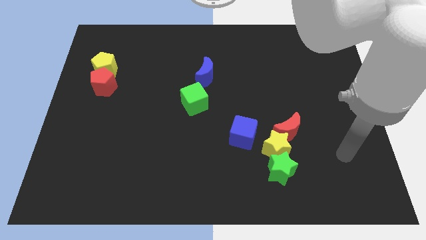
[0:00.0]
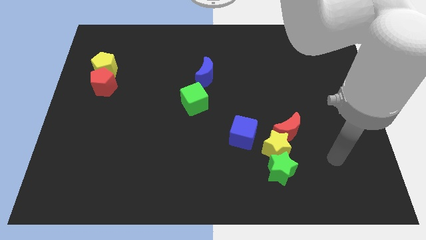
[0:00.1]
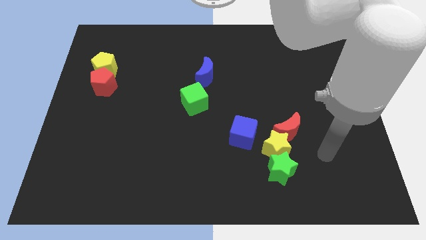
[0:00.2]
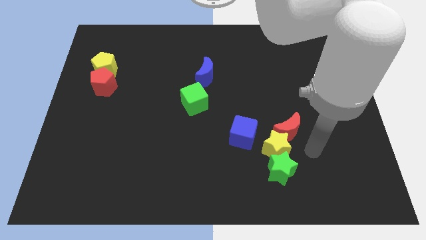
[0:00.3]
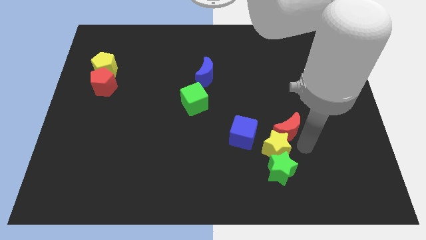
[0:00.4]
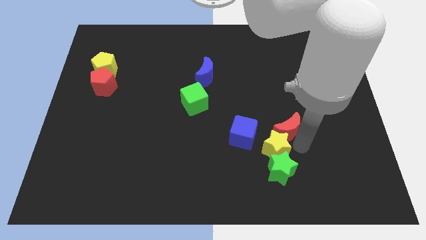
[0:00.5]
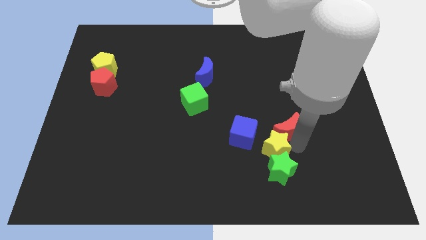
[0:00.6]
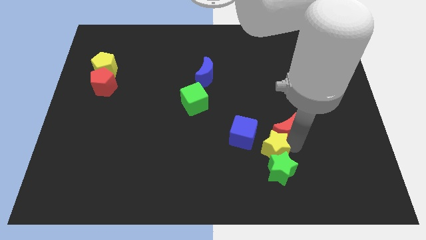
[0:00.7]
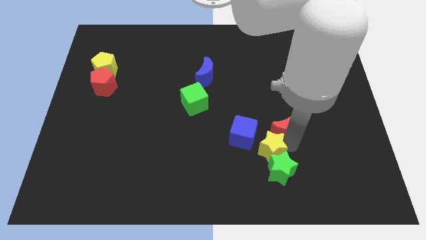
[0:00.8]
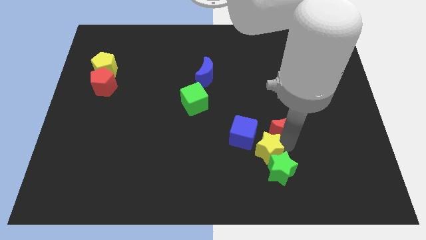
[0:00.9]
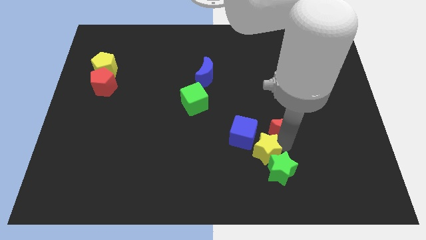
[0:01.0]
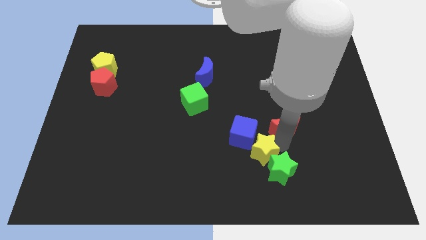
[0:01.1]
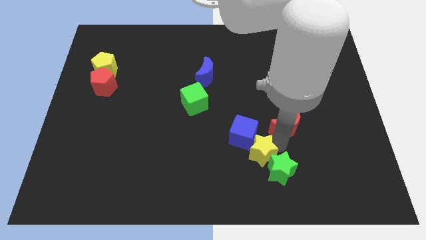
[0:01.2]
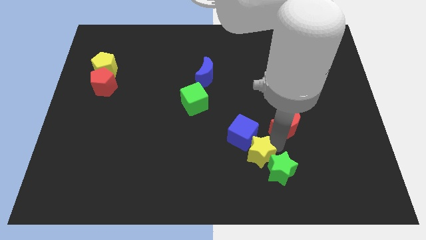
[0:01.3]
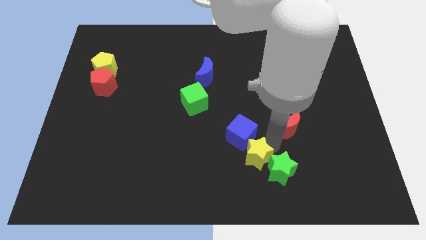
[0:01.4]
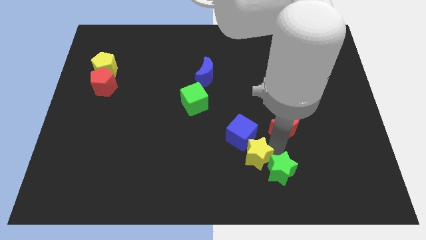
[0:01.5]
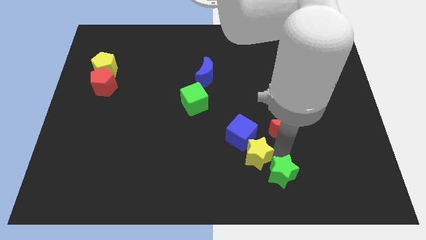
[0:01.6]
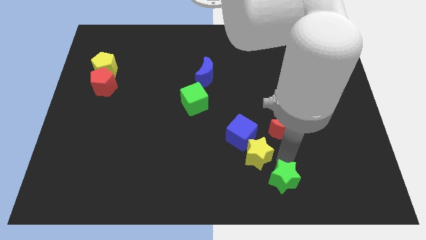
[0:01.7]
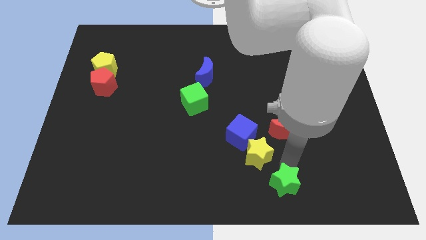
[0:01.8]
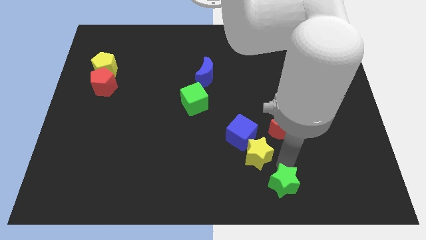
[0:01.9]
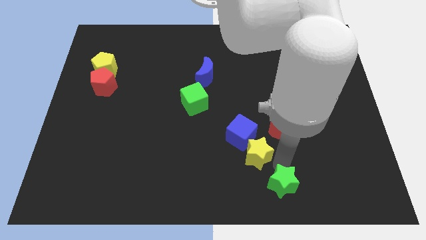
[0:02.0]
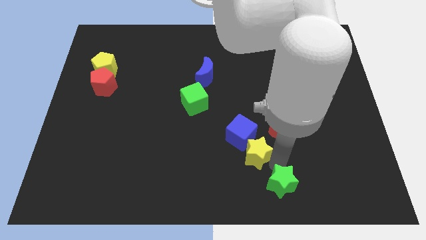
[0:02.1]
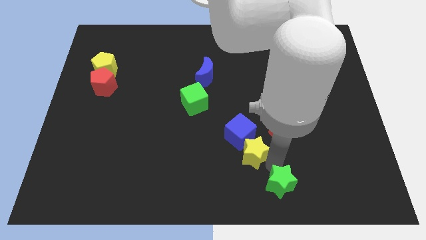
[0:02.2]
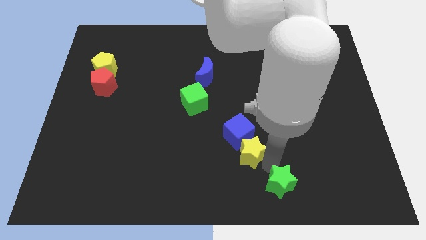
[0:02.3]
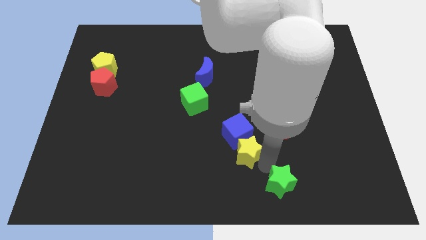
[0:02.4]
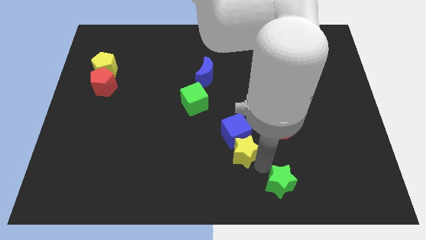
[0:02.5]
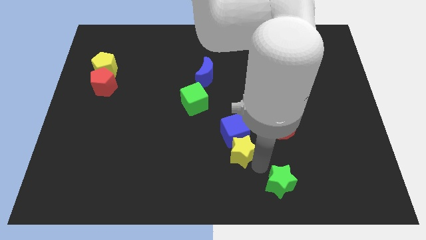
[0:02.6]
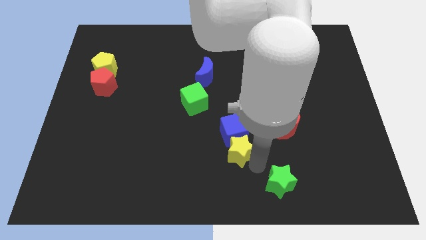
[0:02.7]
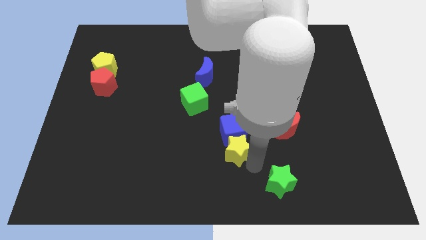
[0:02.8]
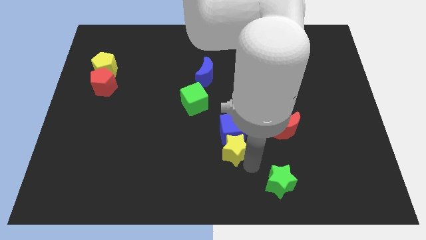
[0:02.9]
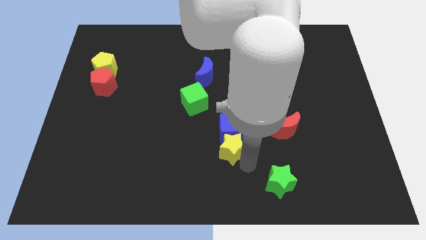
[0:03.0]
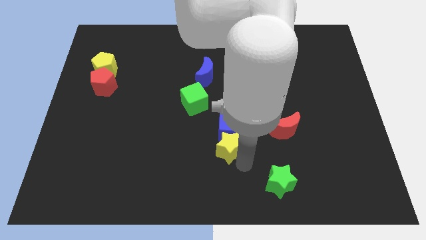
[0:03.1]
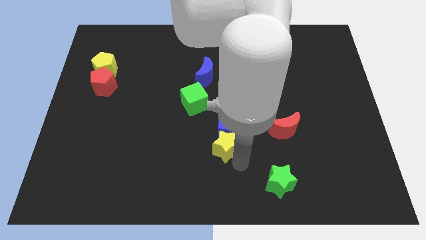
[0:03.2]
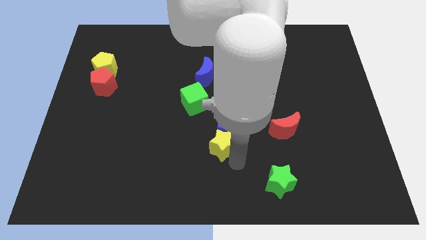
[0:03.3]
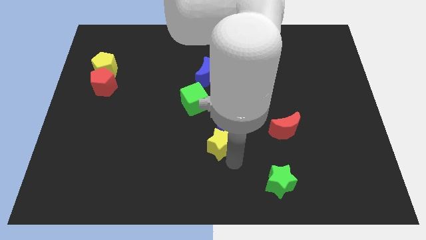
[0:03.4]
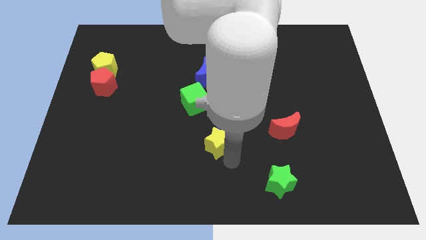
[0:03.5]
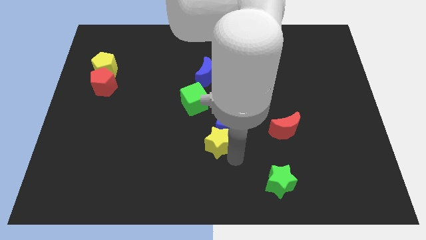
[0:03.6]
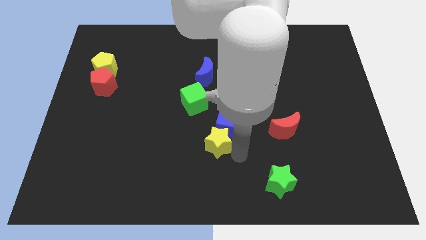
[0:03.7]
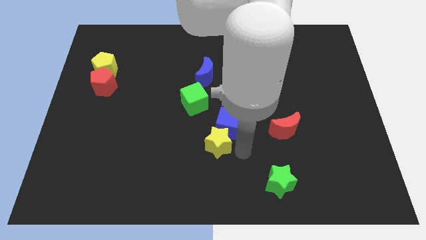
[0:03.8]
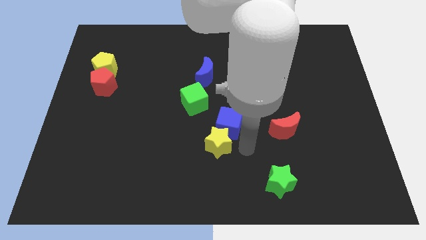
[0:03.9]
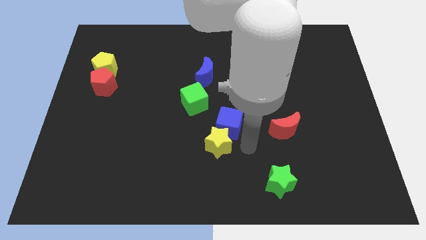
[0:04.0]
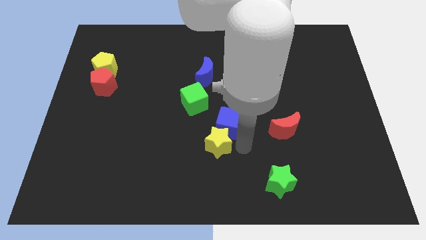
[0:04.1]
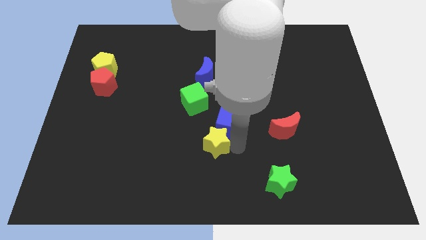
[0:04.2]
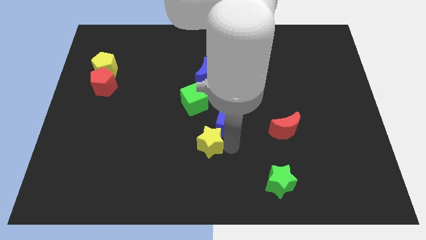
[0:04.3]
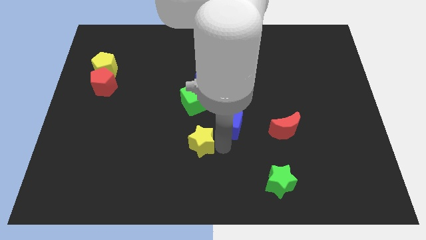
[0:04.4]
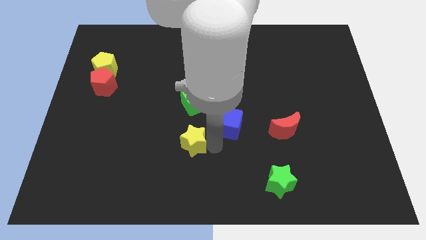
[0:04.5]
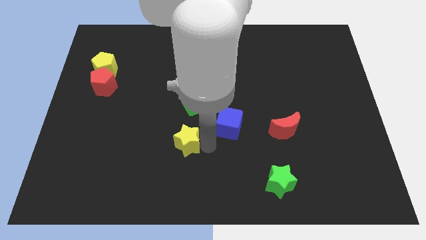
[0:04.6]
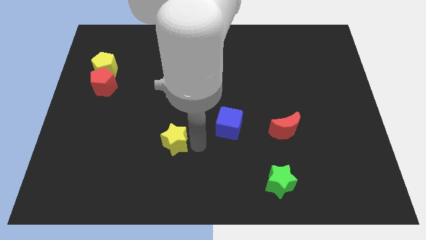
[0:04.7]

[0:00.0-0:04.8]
move the yellow star to the left

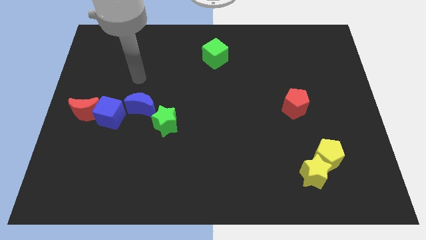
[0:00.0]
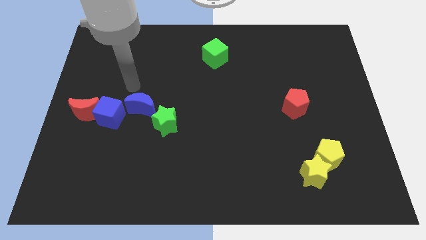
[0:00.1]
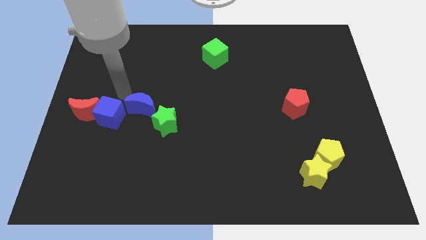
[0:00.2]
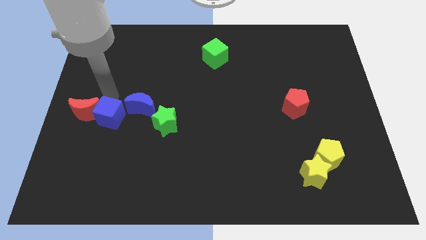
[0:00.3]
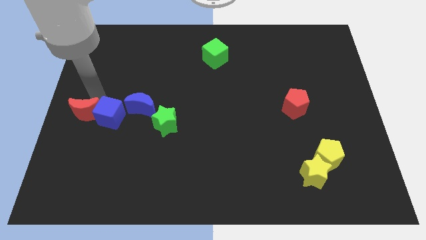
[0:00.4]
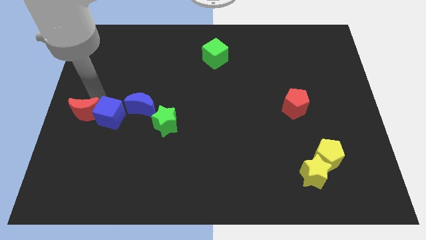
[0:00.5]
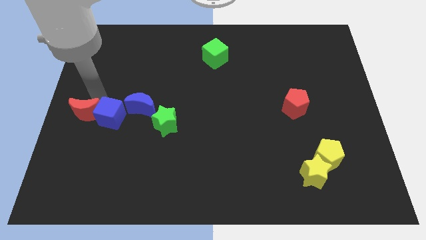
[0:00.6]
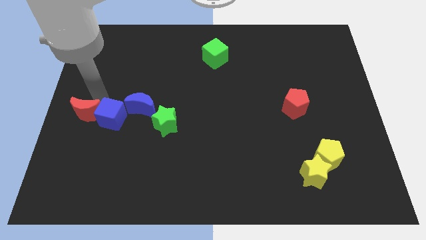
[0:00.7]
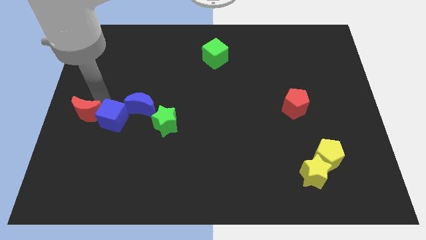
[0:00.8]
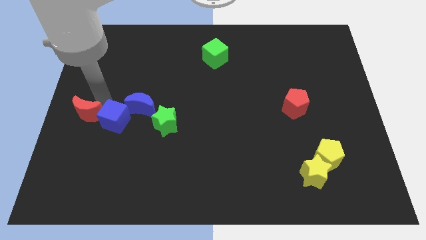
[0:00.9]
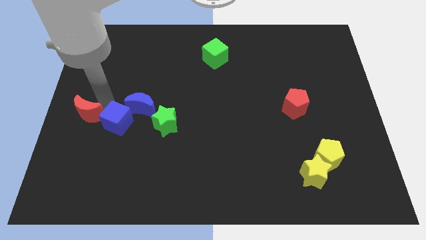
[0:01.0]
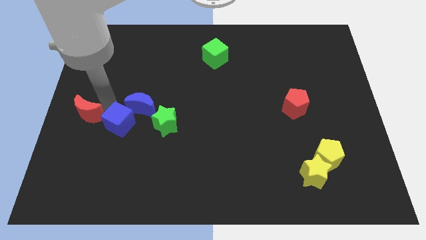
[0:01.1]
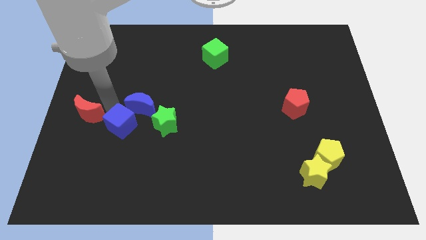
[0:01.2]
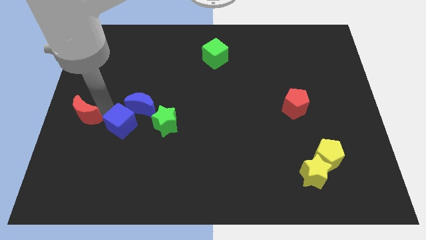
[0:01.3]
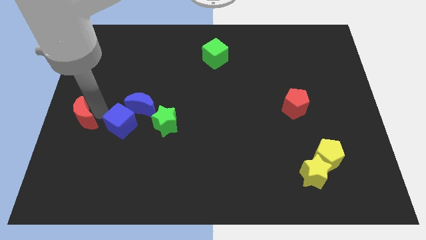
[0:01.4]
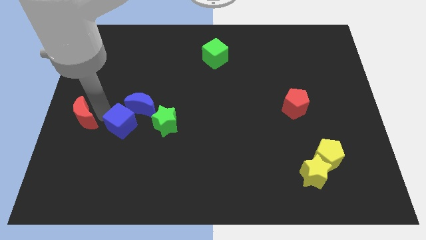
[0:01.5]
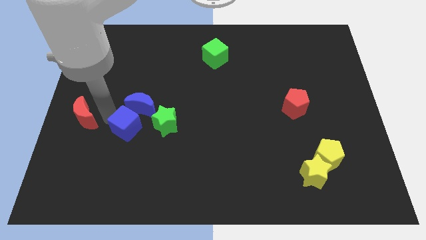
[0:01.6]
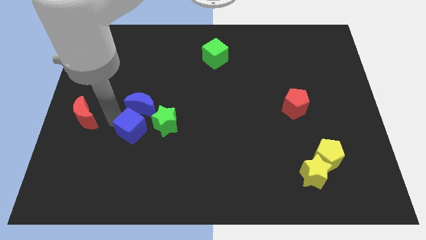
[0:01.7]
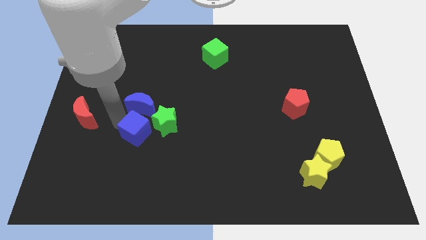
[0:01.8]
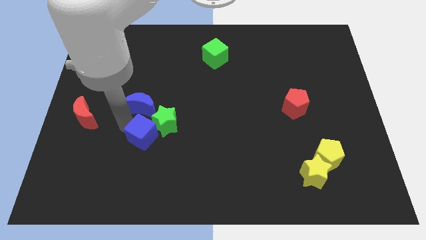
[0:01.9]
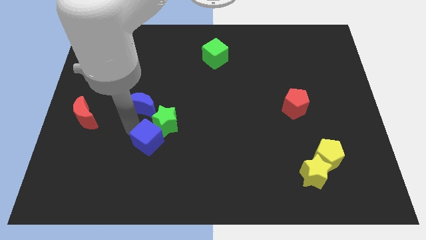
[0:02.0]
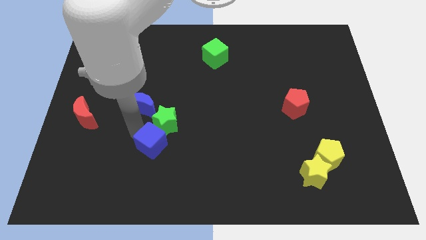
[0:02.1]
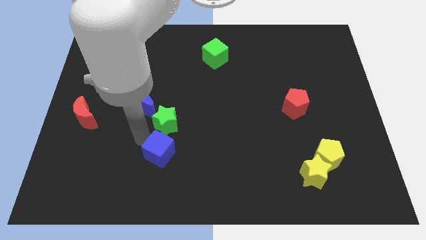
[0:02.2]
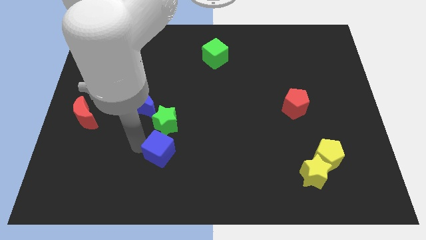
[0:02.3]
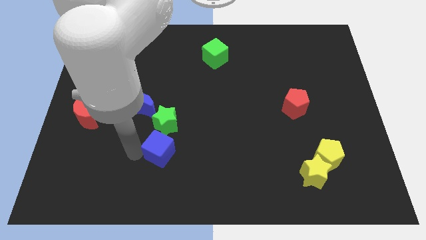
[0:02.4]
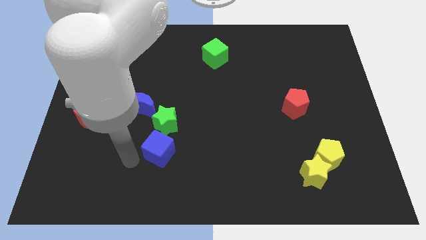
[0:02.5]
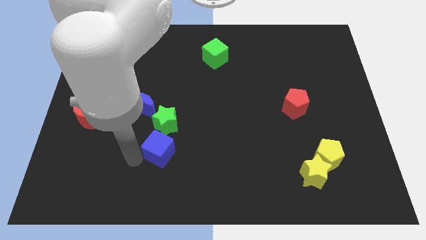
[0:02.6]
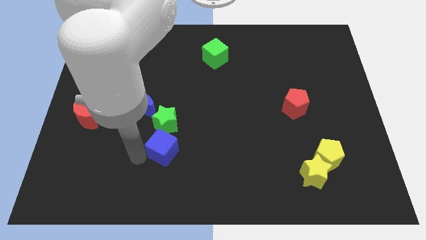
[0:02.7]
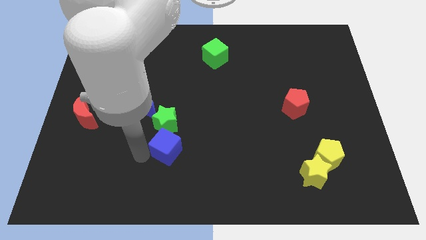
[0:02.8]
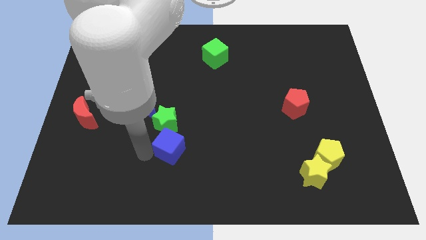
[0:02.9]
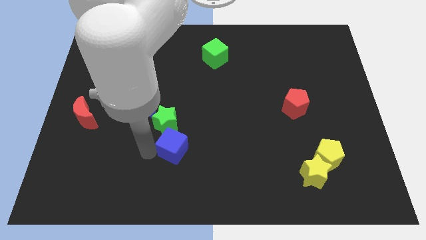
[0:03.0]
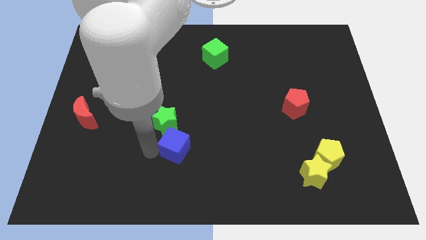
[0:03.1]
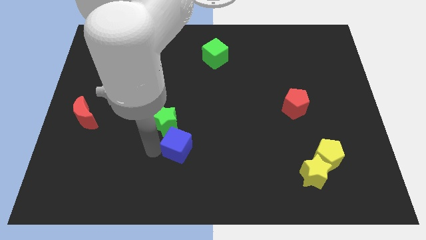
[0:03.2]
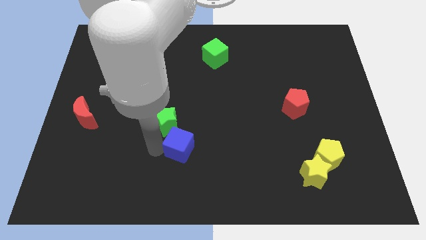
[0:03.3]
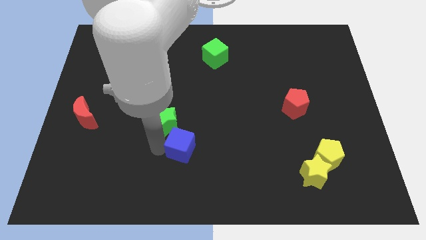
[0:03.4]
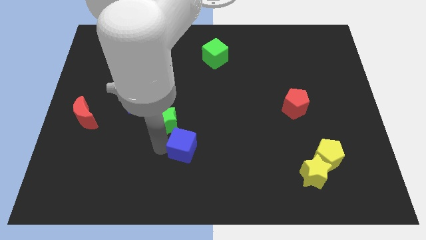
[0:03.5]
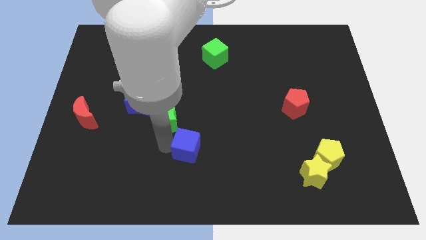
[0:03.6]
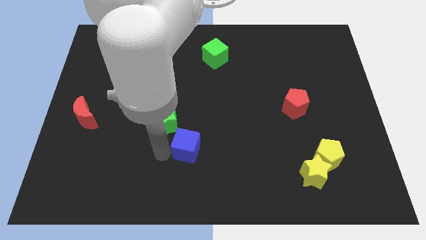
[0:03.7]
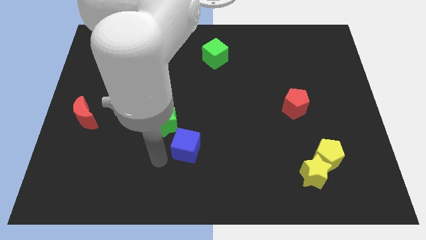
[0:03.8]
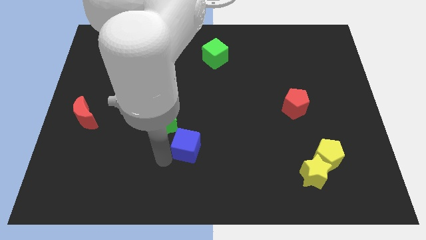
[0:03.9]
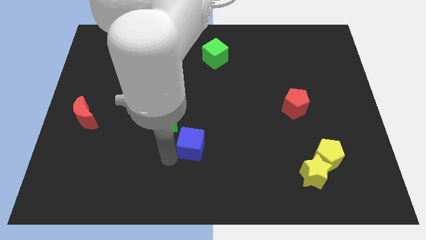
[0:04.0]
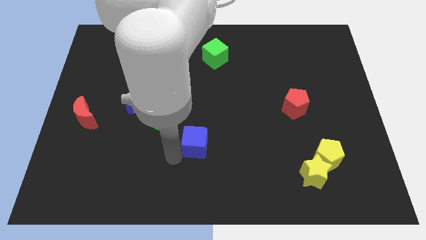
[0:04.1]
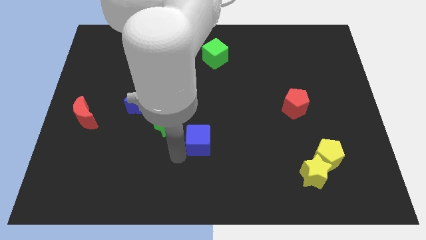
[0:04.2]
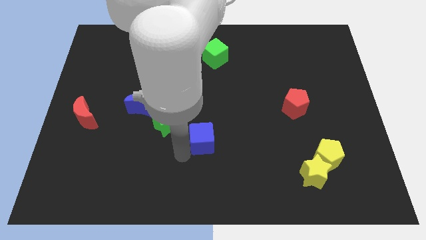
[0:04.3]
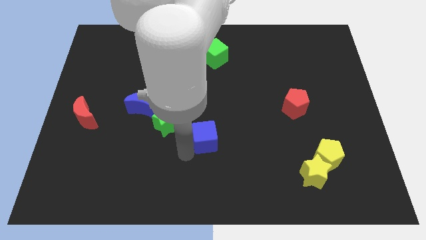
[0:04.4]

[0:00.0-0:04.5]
push the blue cube to the right
